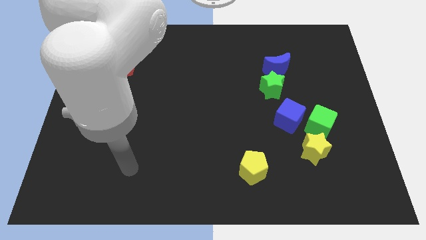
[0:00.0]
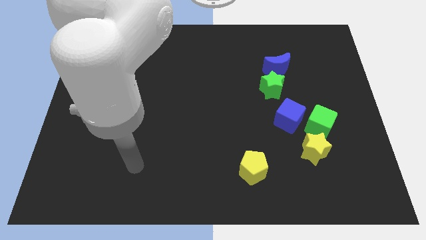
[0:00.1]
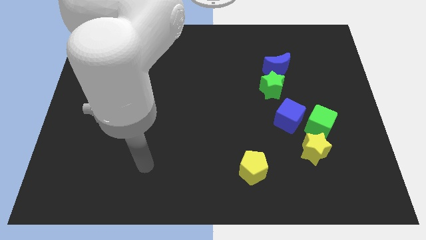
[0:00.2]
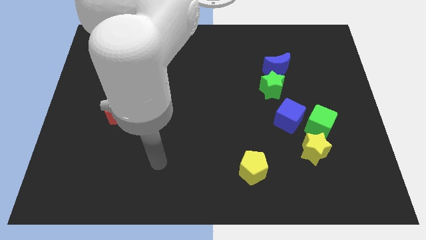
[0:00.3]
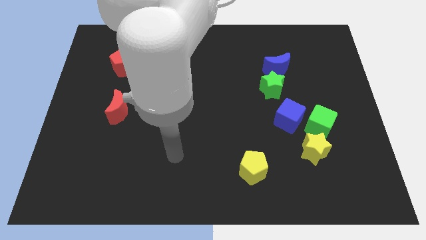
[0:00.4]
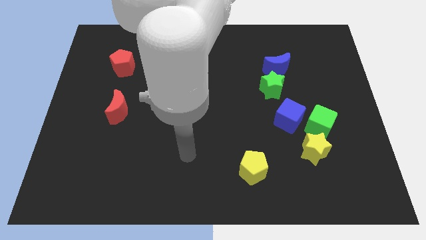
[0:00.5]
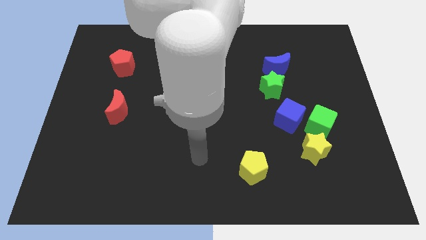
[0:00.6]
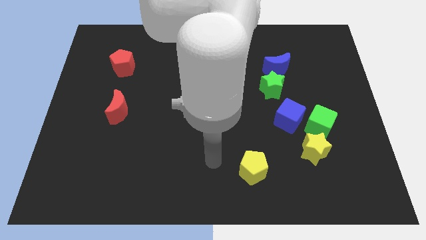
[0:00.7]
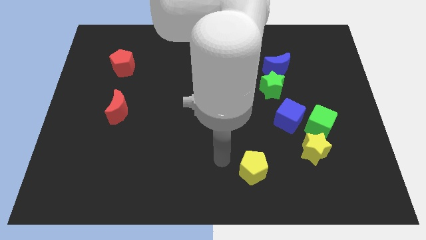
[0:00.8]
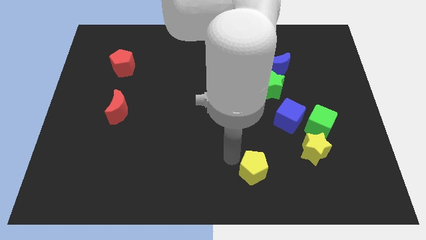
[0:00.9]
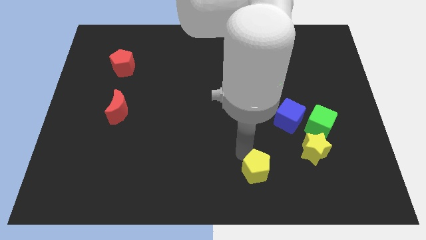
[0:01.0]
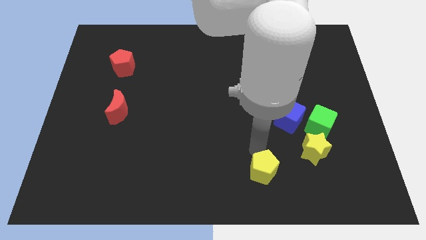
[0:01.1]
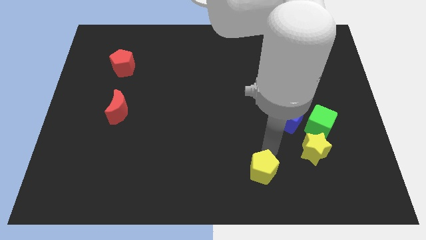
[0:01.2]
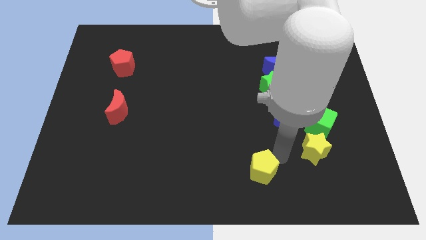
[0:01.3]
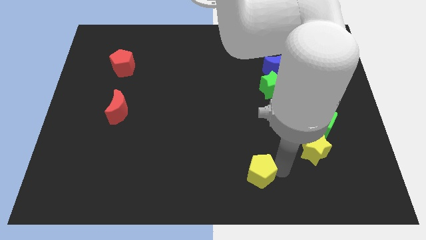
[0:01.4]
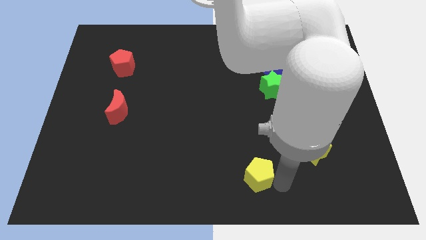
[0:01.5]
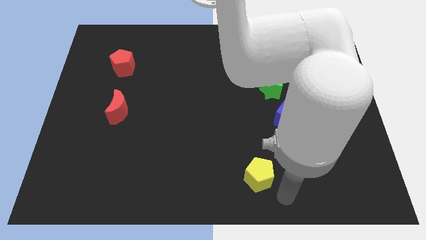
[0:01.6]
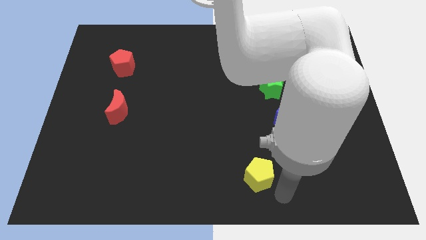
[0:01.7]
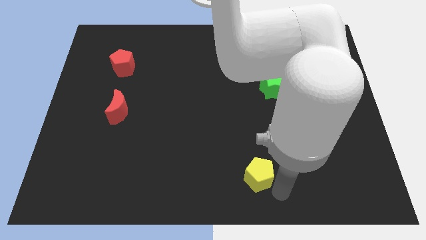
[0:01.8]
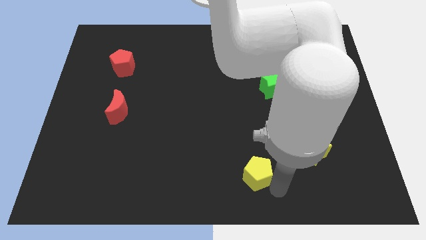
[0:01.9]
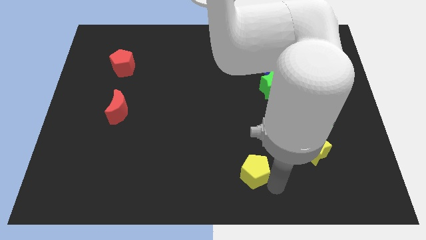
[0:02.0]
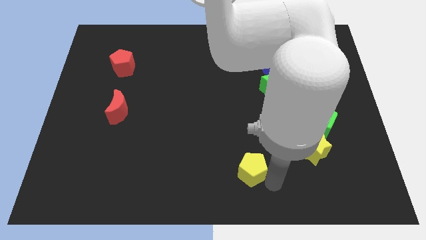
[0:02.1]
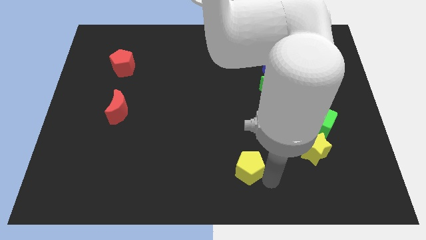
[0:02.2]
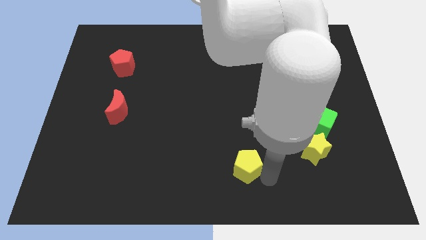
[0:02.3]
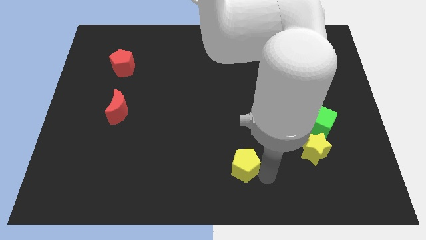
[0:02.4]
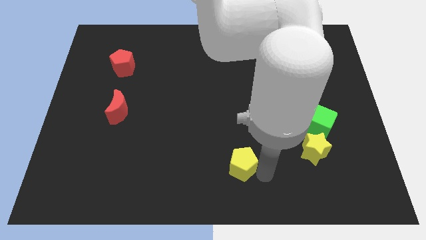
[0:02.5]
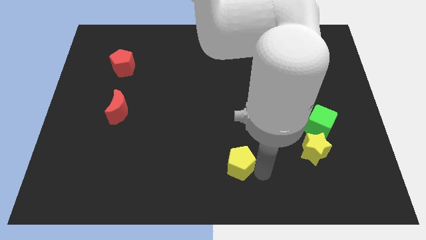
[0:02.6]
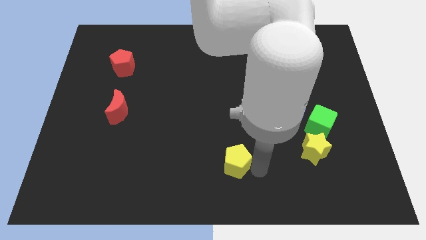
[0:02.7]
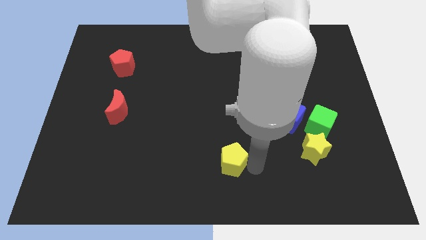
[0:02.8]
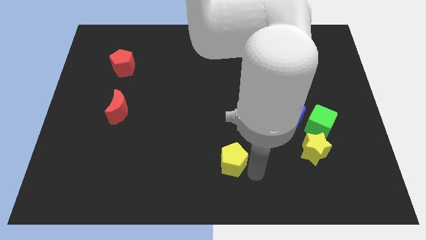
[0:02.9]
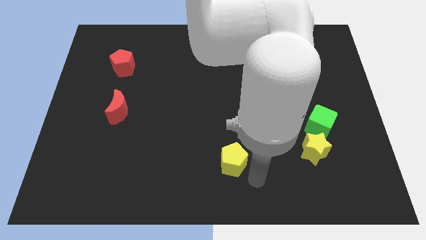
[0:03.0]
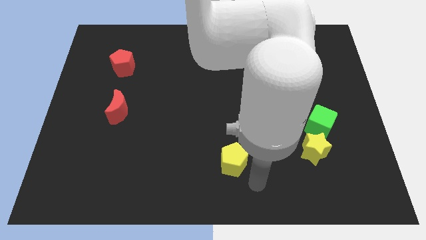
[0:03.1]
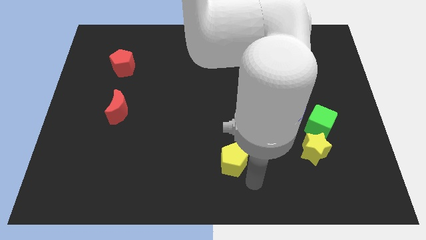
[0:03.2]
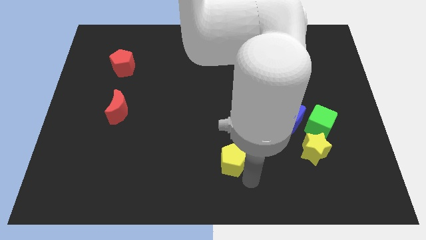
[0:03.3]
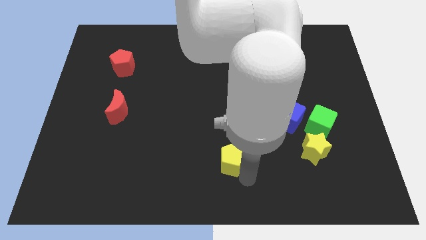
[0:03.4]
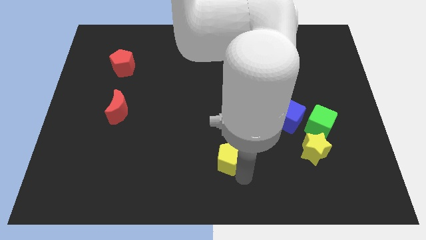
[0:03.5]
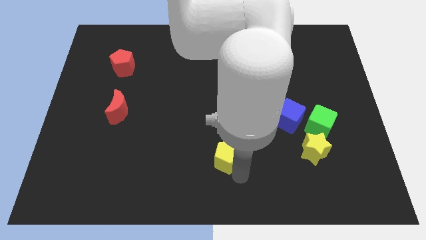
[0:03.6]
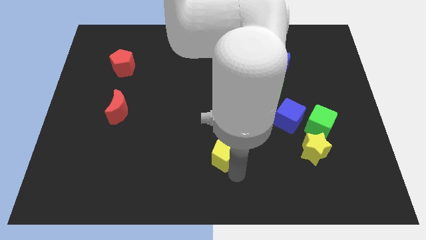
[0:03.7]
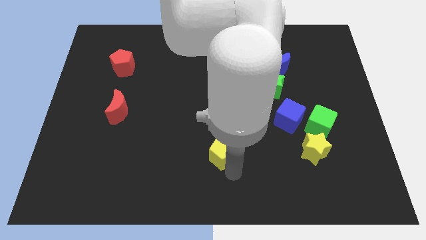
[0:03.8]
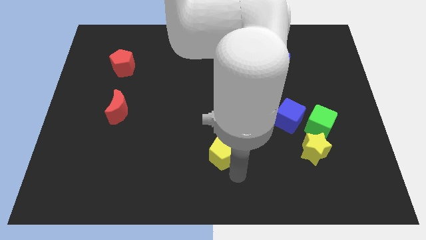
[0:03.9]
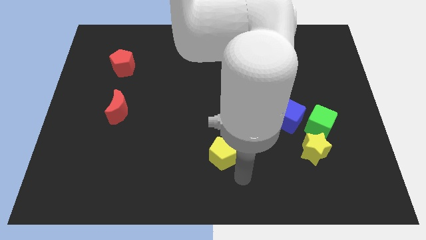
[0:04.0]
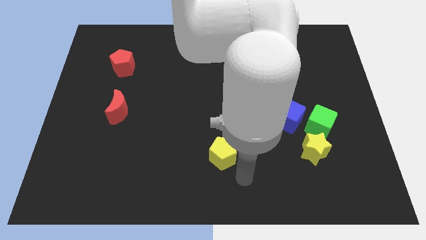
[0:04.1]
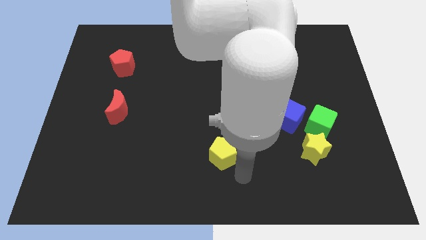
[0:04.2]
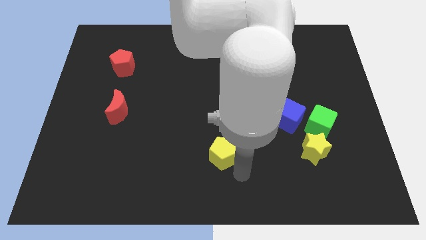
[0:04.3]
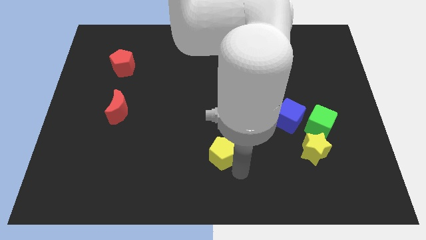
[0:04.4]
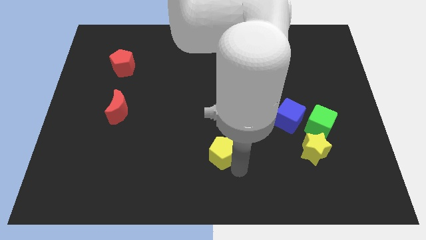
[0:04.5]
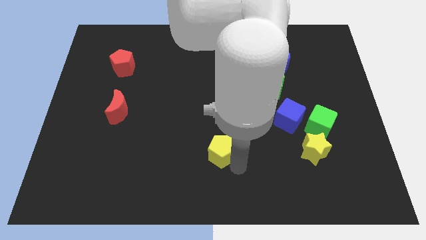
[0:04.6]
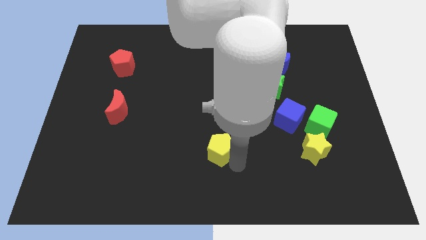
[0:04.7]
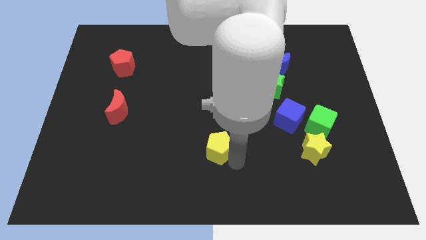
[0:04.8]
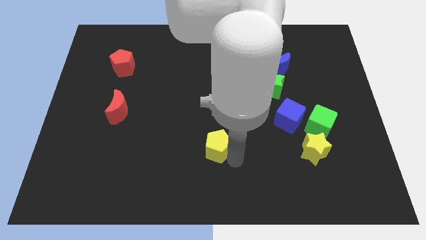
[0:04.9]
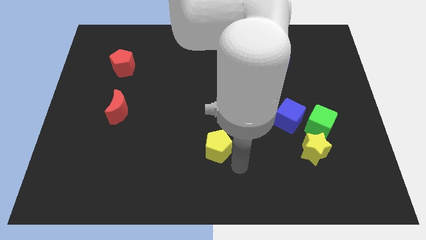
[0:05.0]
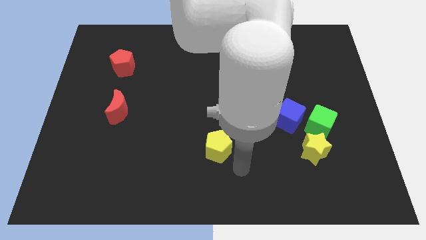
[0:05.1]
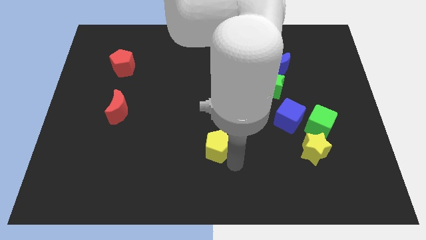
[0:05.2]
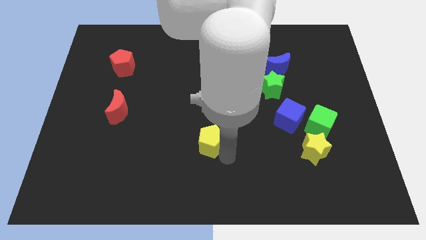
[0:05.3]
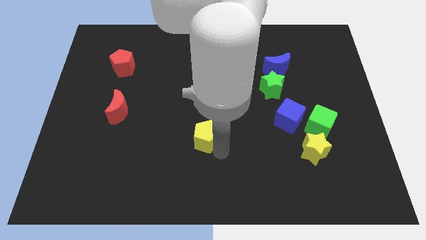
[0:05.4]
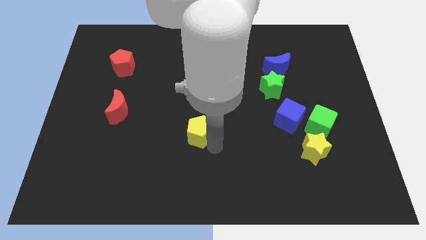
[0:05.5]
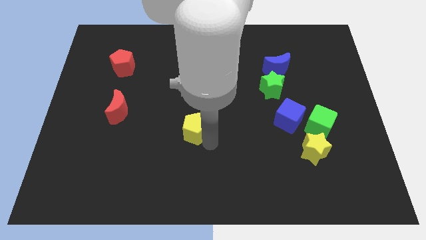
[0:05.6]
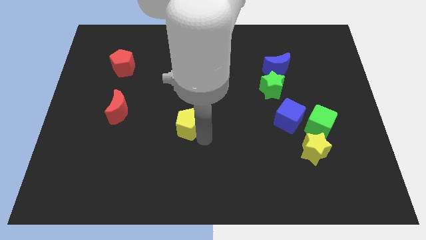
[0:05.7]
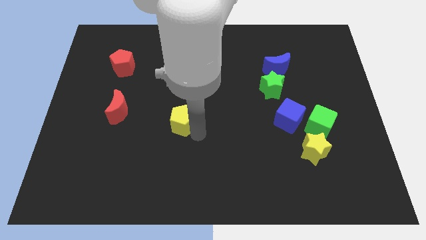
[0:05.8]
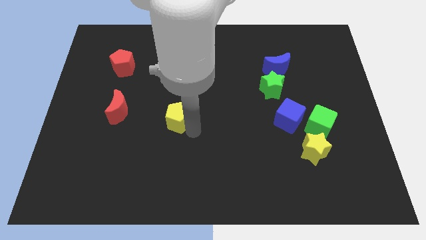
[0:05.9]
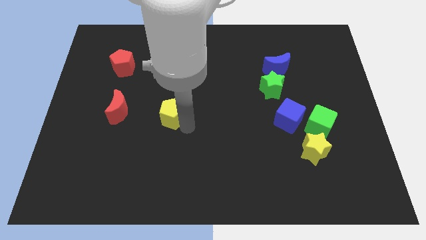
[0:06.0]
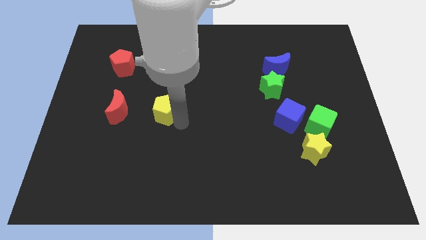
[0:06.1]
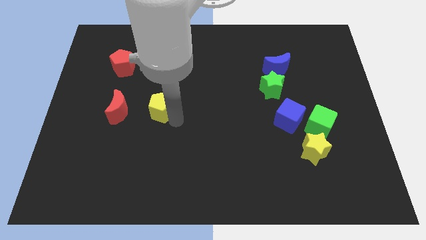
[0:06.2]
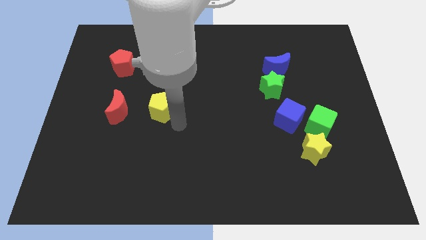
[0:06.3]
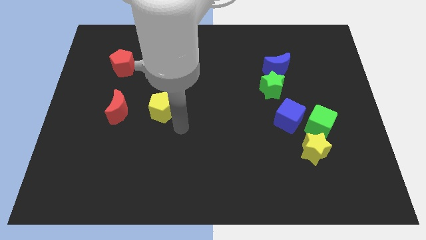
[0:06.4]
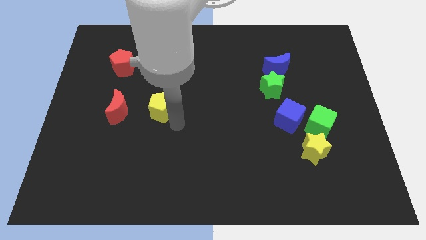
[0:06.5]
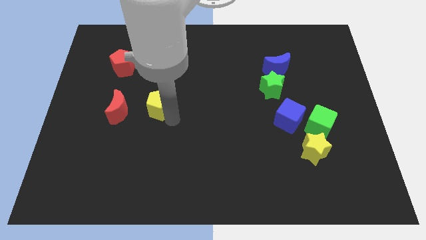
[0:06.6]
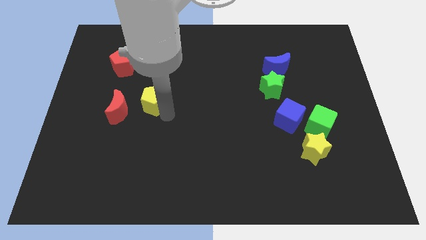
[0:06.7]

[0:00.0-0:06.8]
slide the yellow pentagon to the top right side of the red moon
